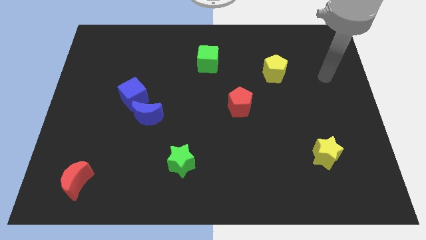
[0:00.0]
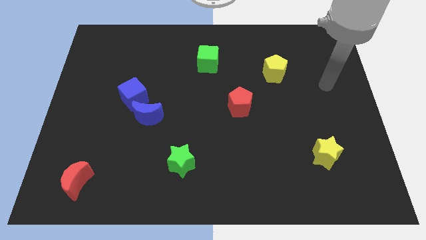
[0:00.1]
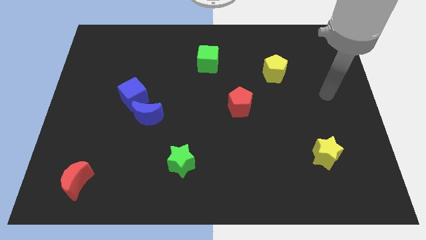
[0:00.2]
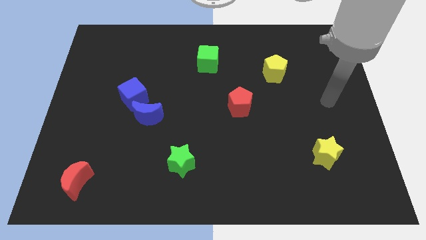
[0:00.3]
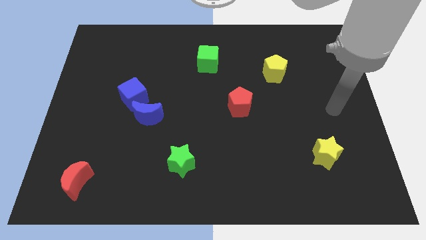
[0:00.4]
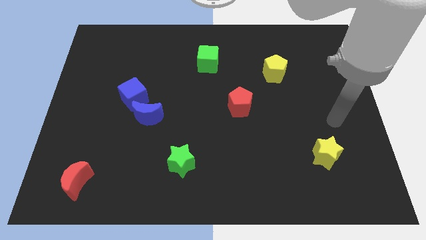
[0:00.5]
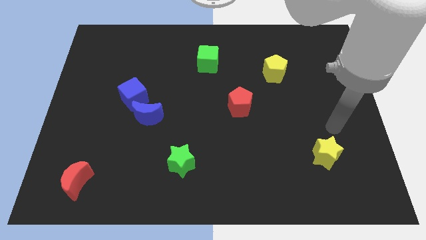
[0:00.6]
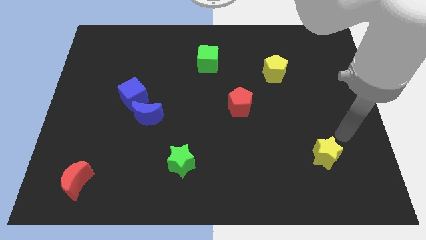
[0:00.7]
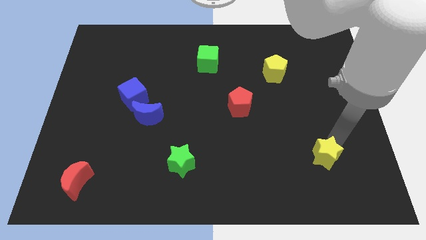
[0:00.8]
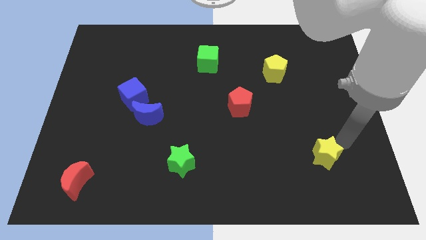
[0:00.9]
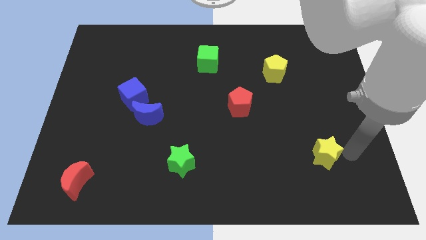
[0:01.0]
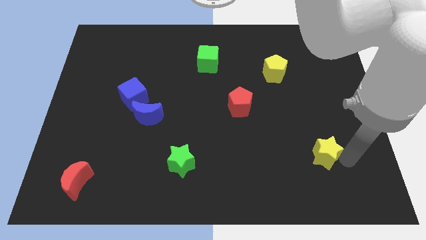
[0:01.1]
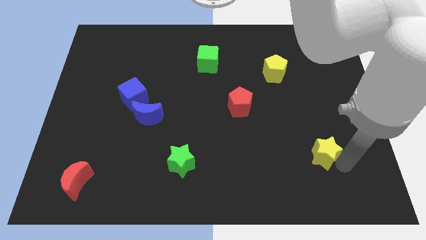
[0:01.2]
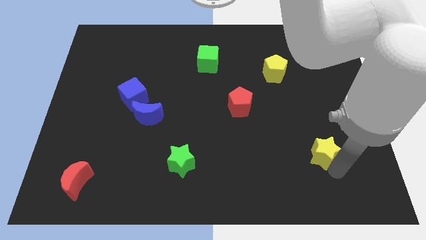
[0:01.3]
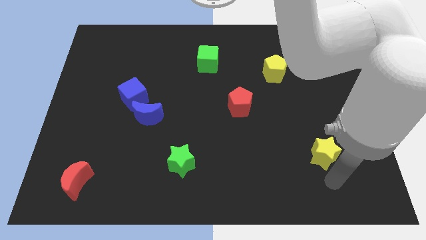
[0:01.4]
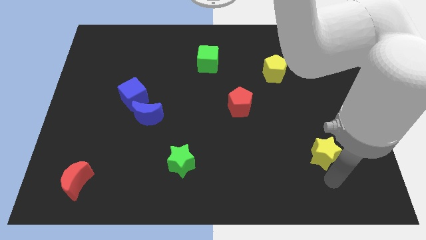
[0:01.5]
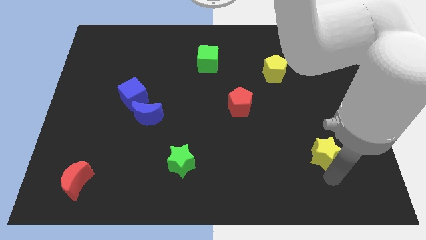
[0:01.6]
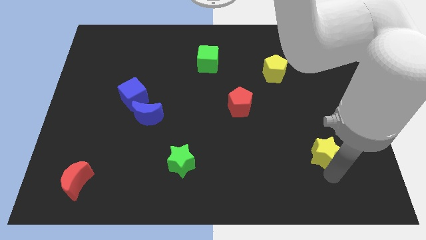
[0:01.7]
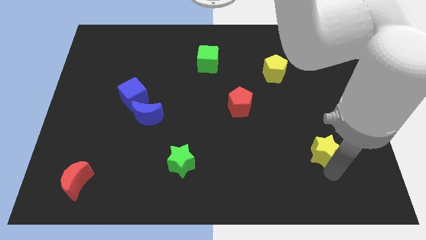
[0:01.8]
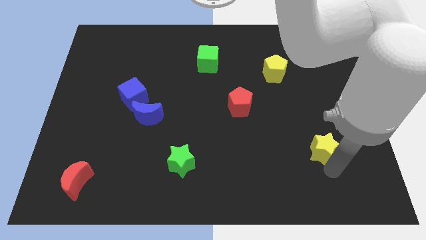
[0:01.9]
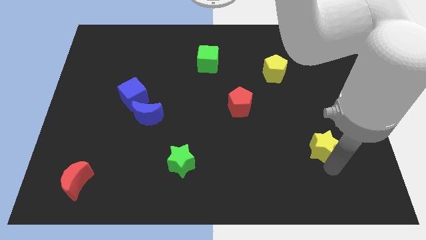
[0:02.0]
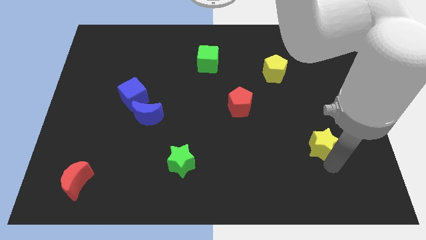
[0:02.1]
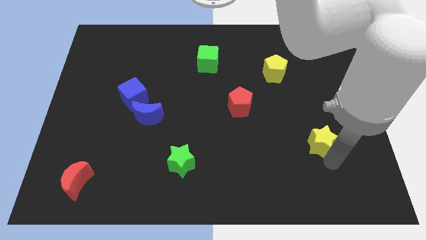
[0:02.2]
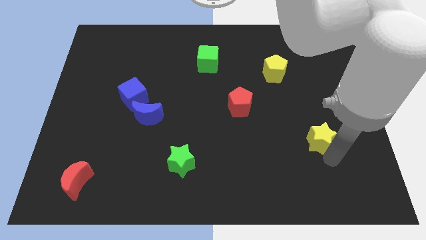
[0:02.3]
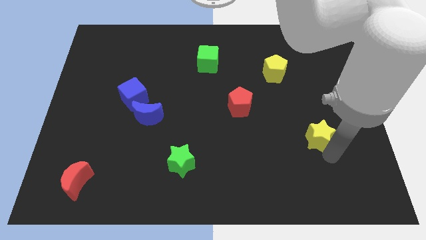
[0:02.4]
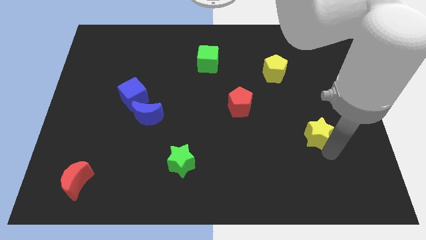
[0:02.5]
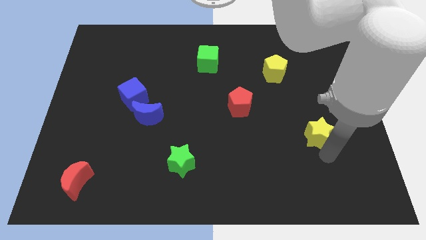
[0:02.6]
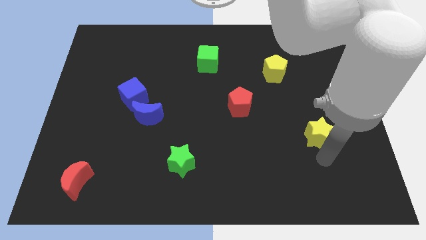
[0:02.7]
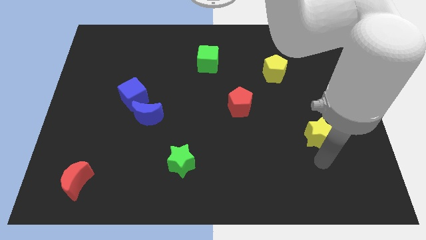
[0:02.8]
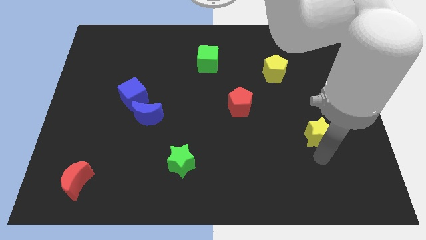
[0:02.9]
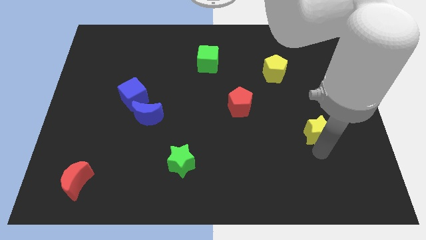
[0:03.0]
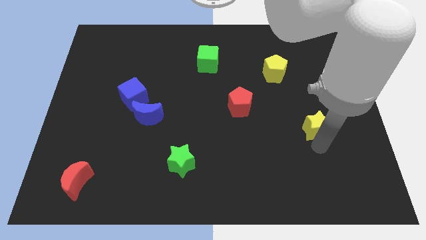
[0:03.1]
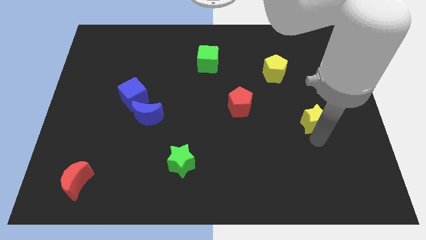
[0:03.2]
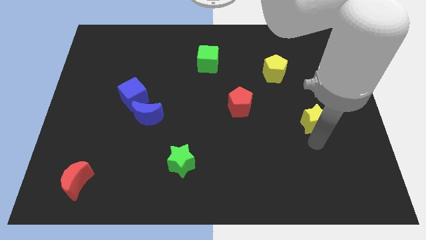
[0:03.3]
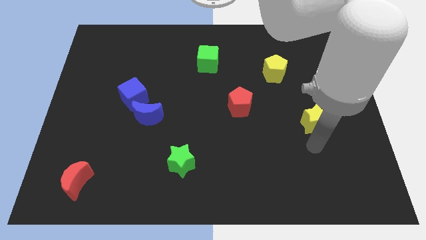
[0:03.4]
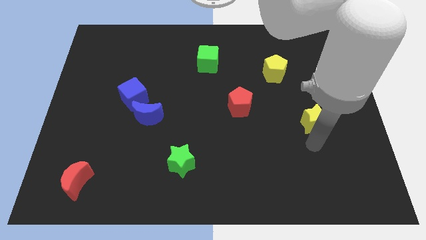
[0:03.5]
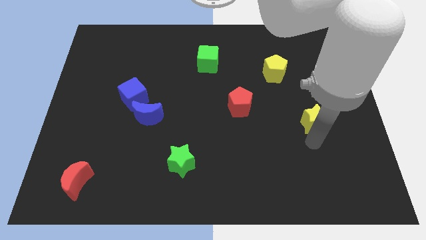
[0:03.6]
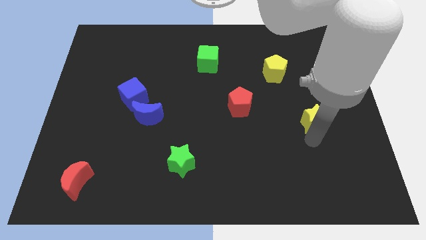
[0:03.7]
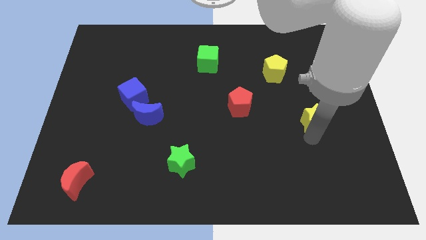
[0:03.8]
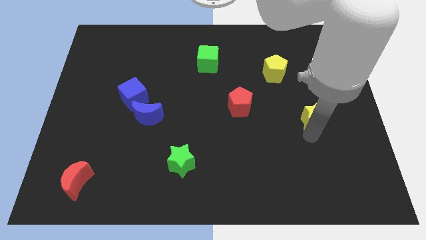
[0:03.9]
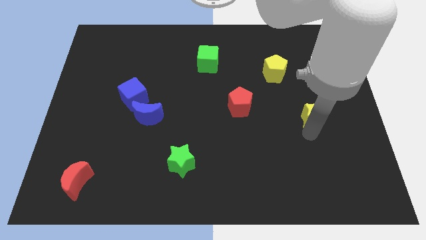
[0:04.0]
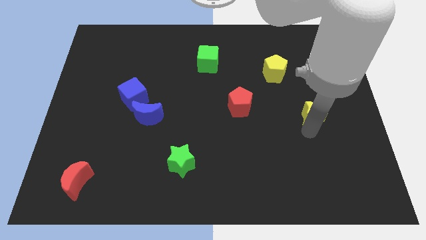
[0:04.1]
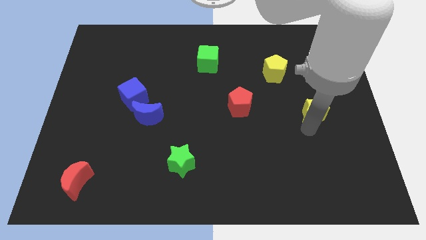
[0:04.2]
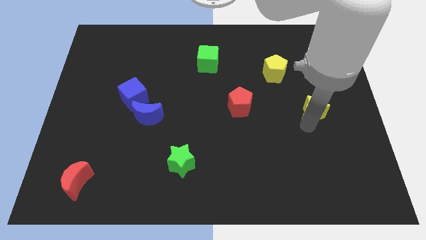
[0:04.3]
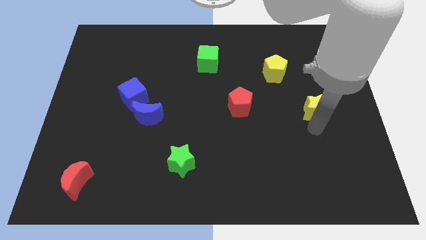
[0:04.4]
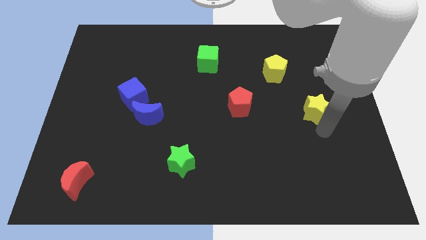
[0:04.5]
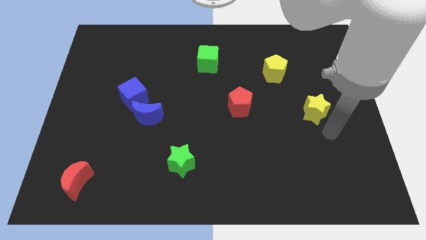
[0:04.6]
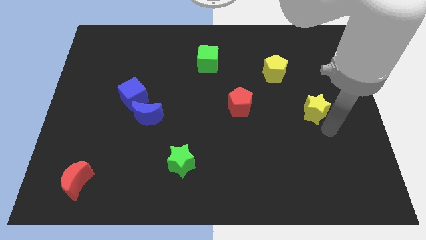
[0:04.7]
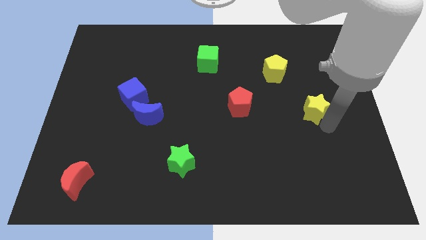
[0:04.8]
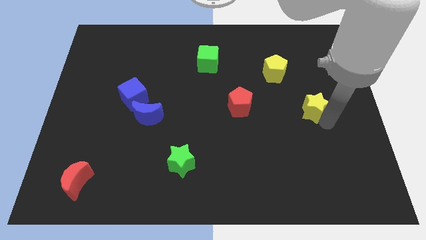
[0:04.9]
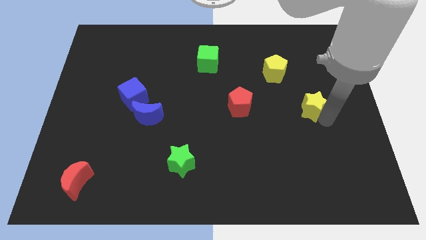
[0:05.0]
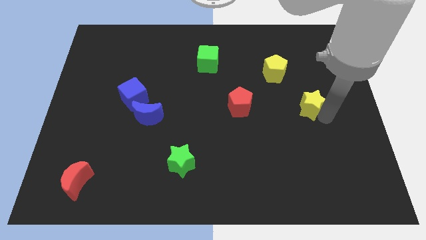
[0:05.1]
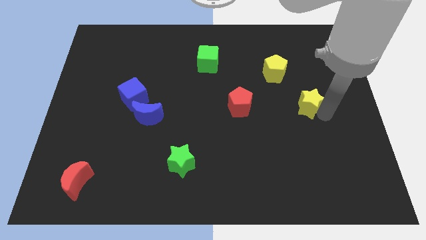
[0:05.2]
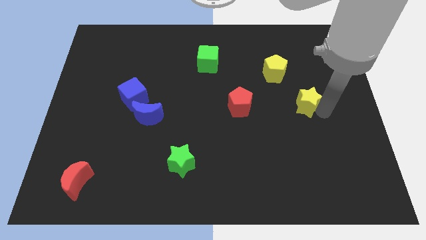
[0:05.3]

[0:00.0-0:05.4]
slide the yellow star to the bottom right side of the yellow pentagon

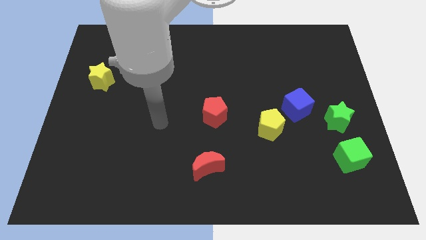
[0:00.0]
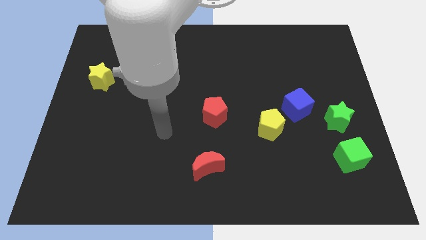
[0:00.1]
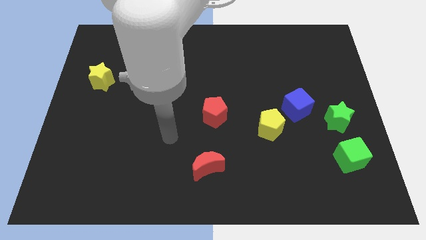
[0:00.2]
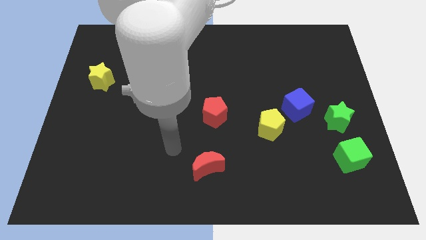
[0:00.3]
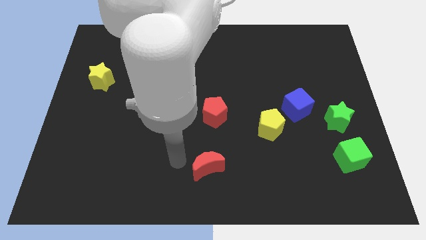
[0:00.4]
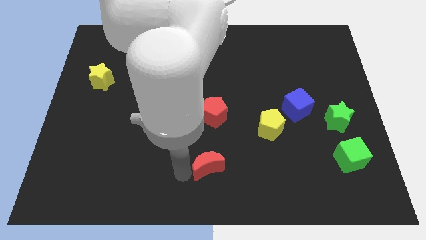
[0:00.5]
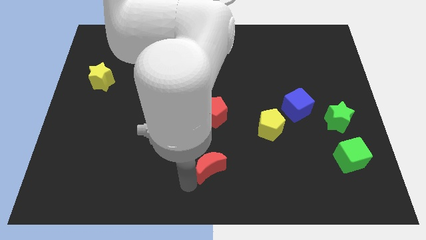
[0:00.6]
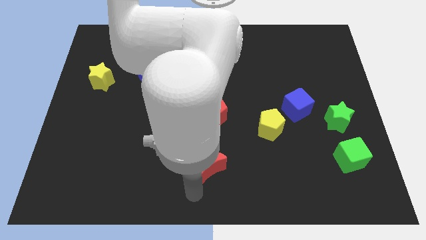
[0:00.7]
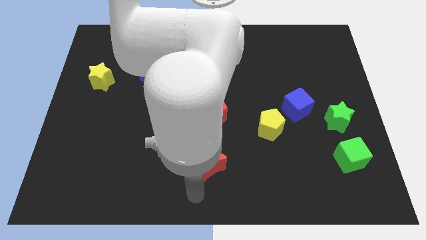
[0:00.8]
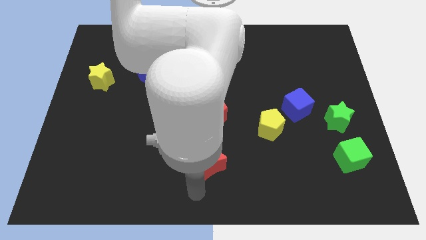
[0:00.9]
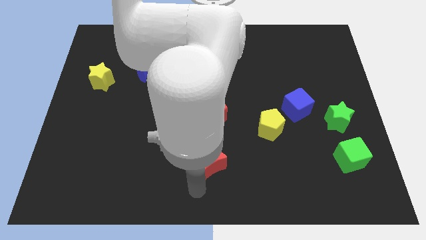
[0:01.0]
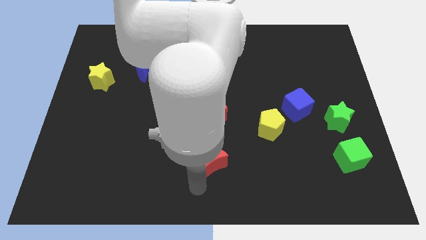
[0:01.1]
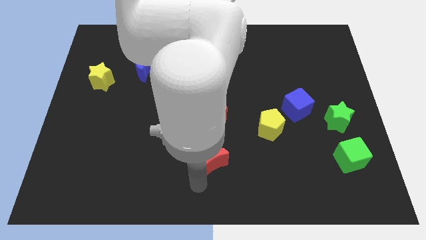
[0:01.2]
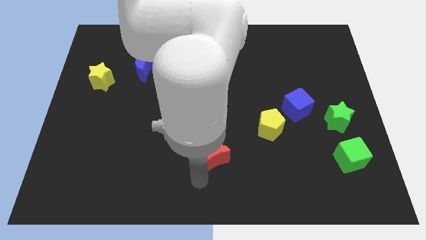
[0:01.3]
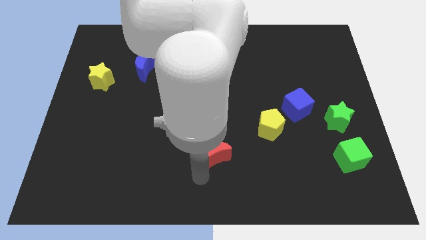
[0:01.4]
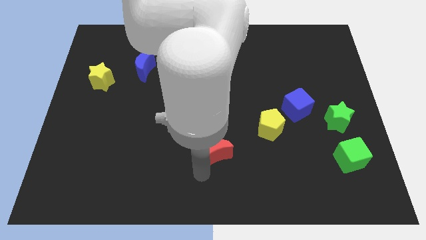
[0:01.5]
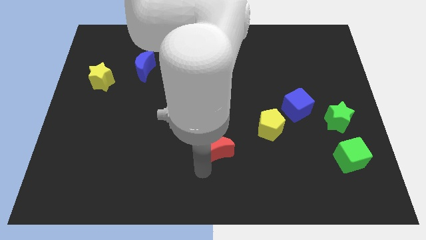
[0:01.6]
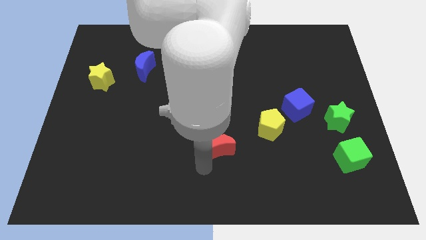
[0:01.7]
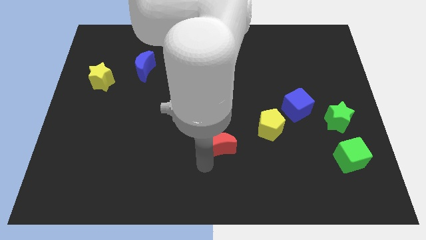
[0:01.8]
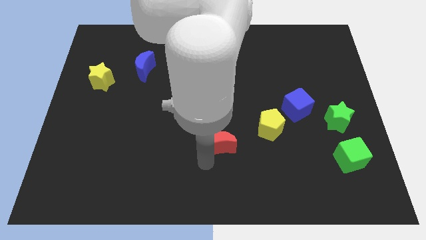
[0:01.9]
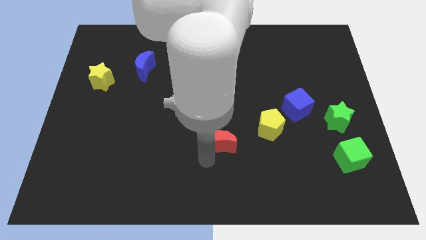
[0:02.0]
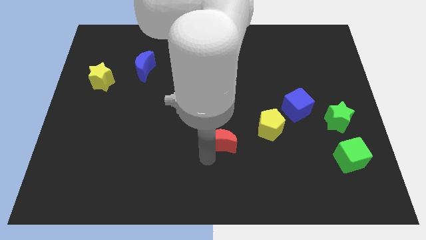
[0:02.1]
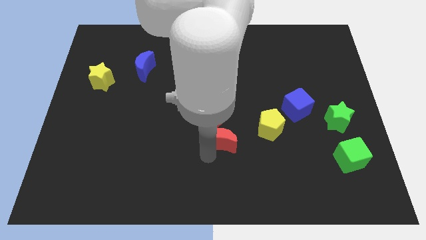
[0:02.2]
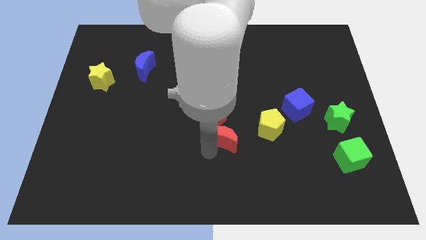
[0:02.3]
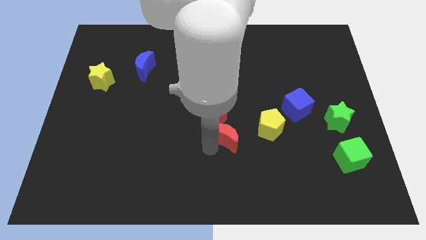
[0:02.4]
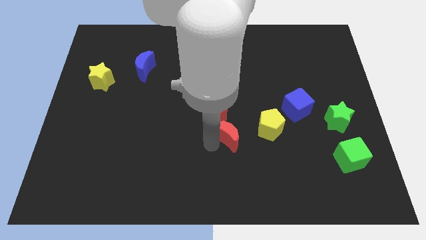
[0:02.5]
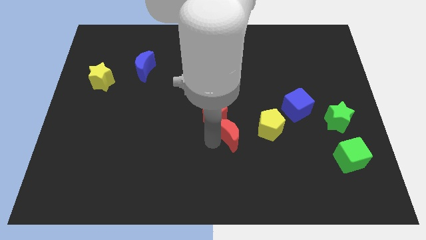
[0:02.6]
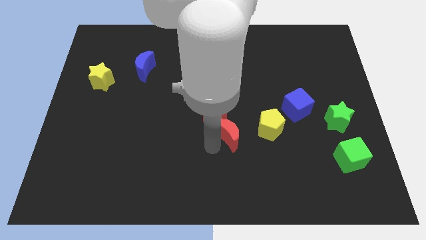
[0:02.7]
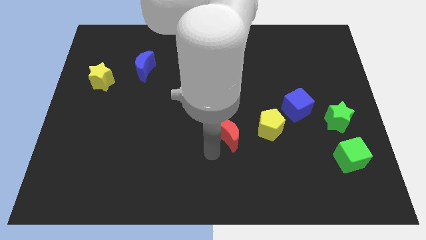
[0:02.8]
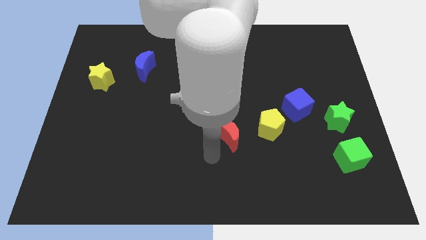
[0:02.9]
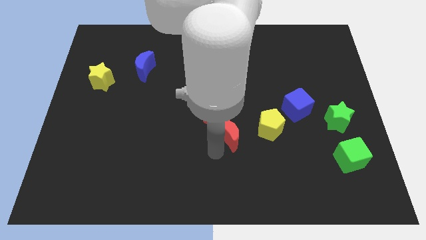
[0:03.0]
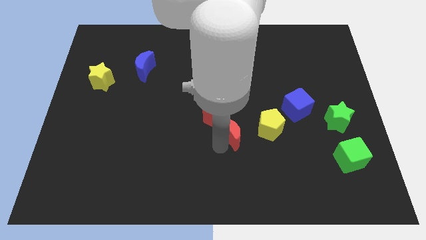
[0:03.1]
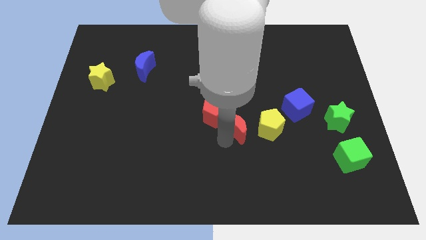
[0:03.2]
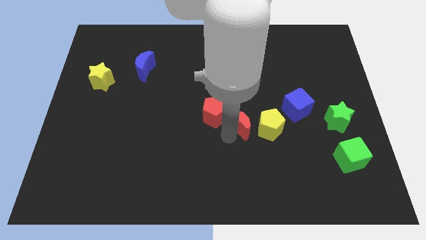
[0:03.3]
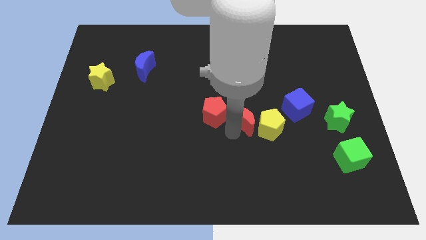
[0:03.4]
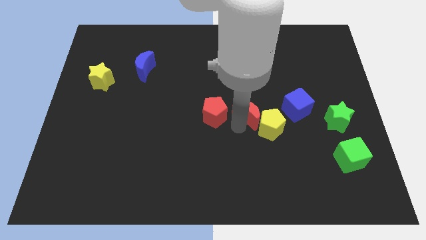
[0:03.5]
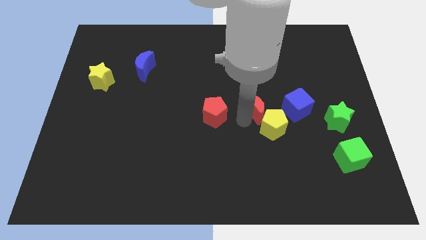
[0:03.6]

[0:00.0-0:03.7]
put the red moon to the top side of the yellow pentagon
